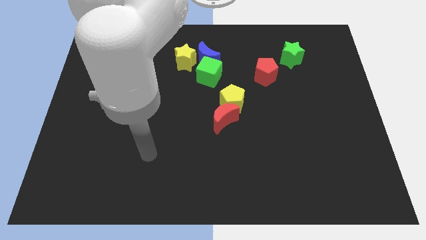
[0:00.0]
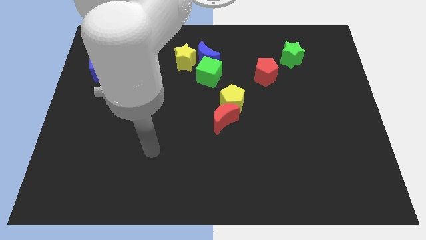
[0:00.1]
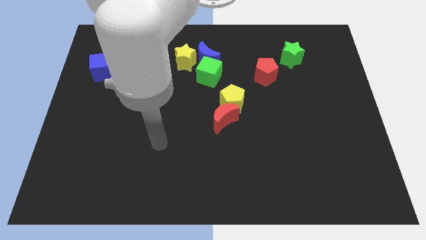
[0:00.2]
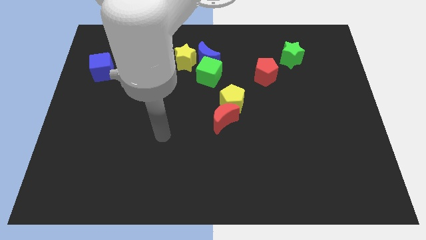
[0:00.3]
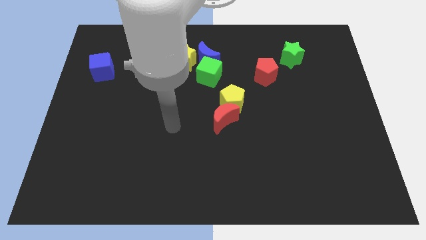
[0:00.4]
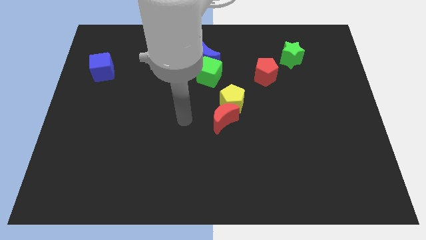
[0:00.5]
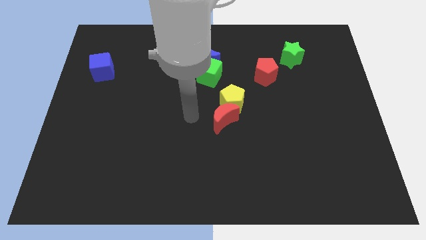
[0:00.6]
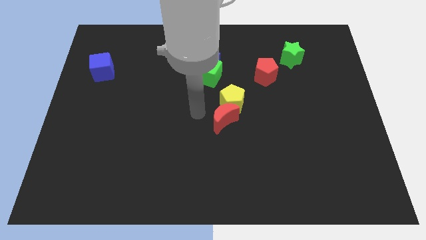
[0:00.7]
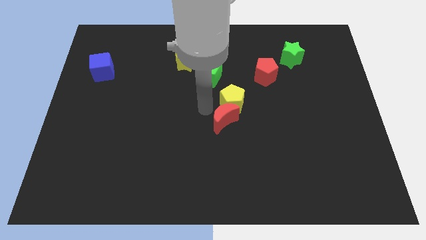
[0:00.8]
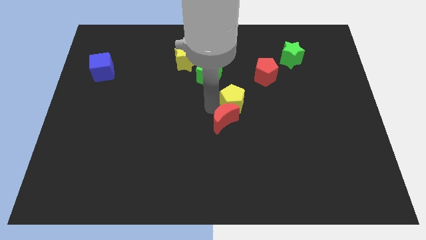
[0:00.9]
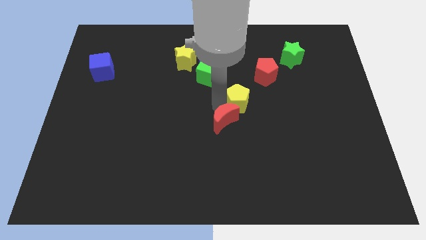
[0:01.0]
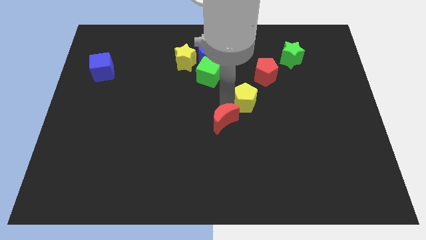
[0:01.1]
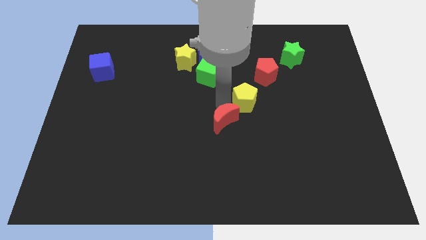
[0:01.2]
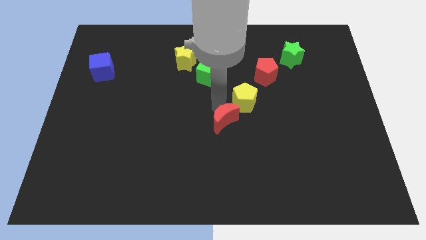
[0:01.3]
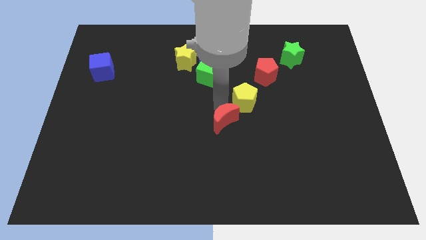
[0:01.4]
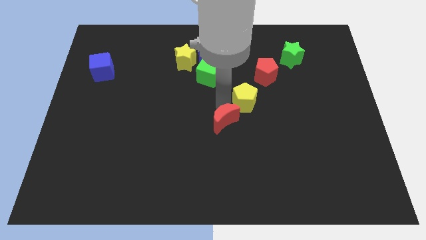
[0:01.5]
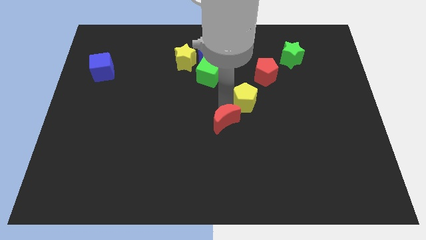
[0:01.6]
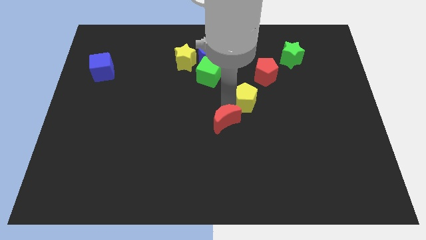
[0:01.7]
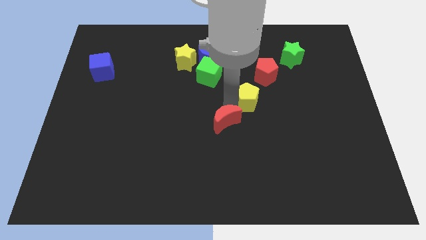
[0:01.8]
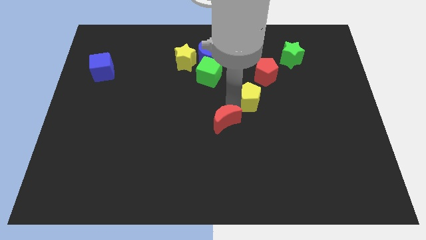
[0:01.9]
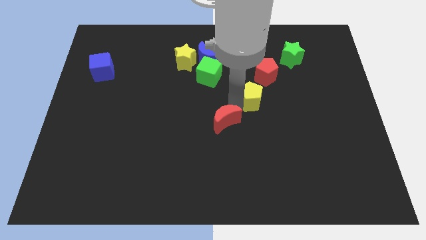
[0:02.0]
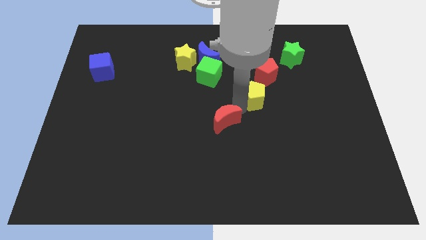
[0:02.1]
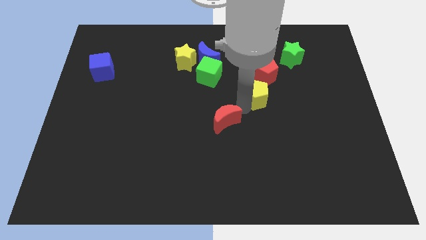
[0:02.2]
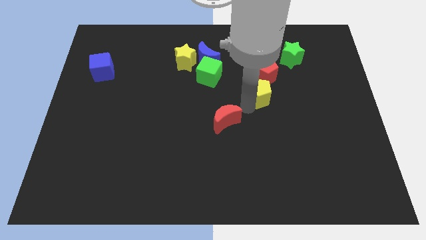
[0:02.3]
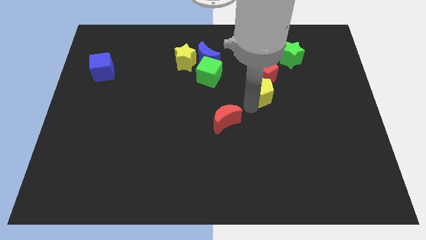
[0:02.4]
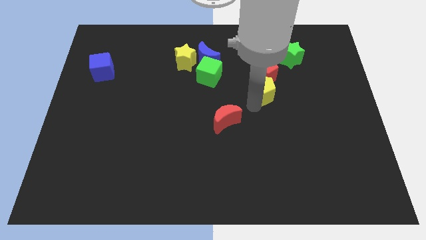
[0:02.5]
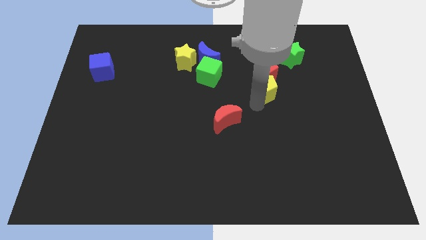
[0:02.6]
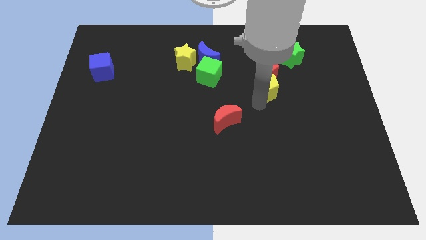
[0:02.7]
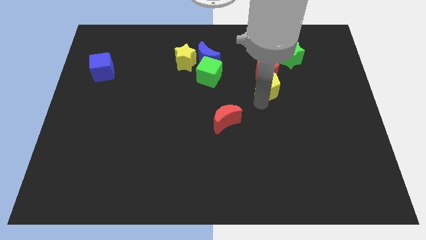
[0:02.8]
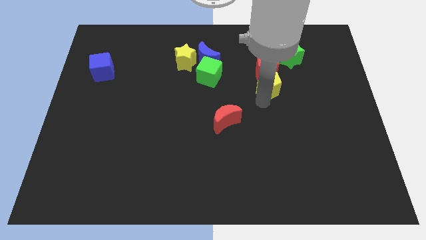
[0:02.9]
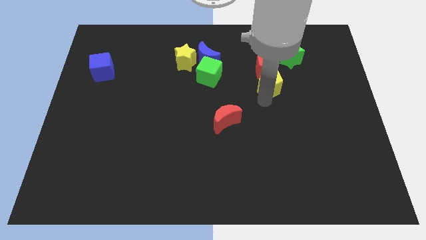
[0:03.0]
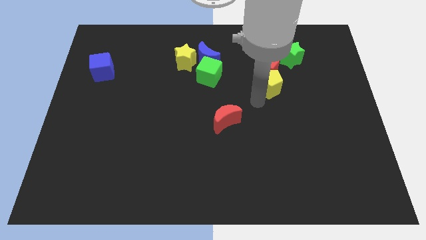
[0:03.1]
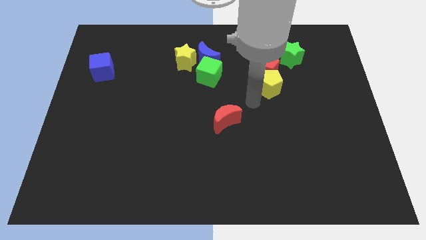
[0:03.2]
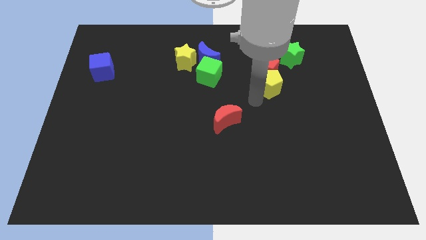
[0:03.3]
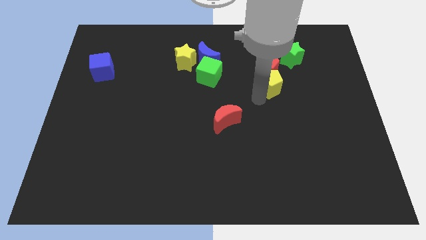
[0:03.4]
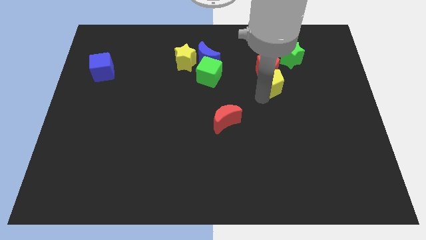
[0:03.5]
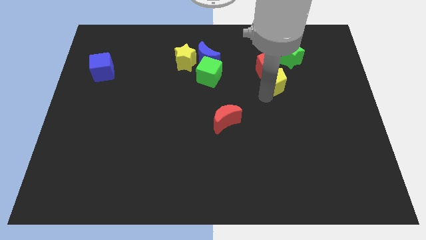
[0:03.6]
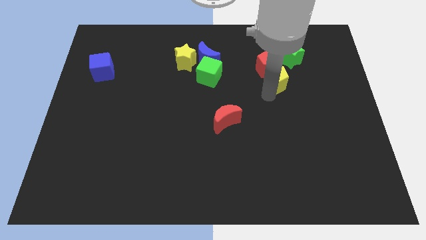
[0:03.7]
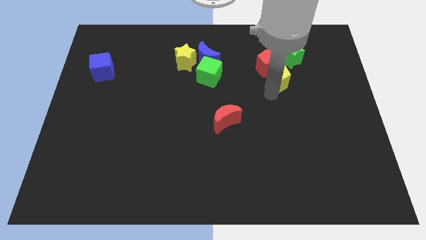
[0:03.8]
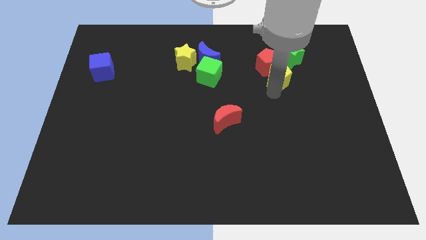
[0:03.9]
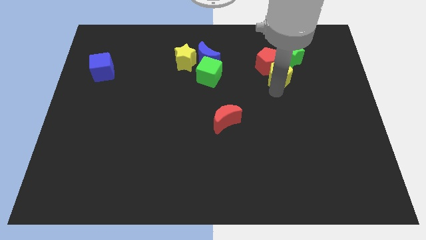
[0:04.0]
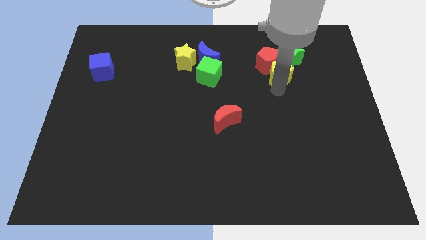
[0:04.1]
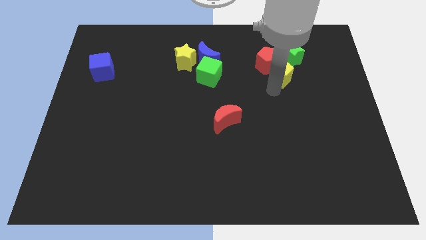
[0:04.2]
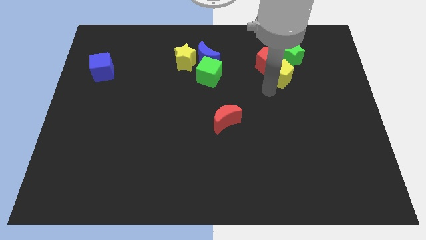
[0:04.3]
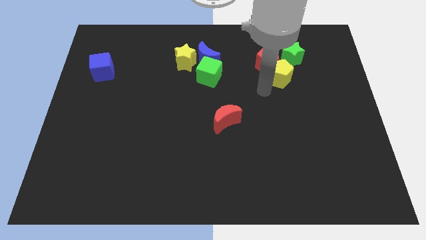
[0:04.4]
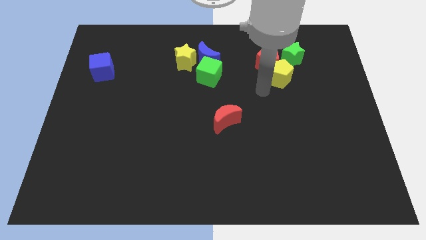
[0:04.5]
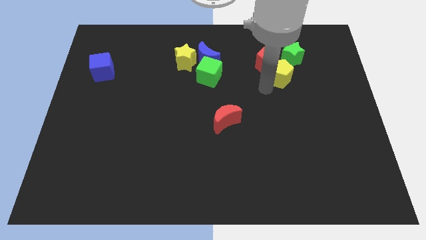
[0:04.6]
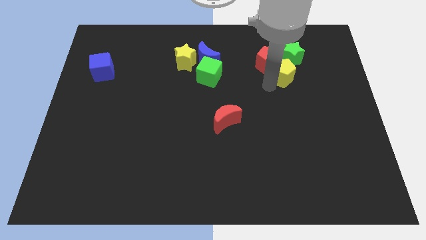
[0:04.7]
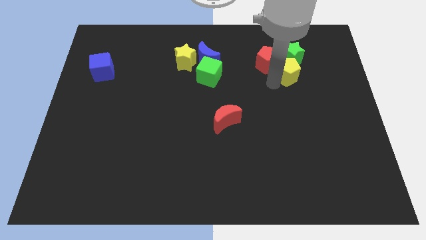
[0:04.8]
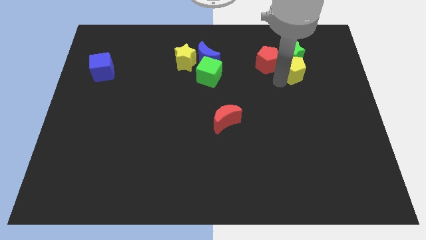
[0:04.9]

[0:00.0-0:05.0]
slide the yellow pentagon close to the green star

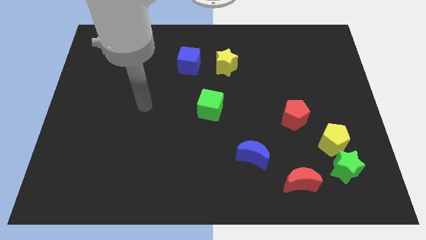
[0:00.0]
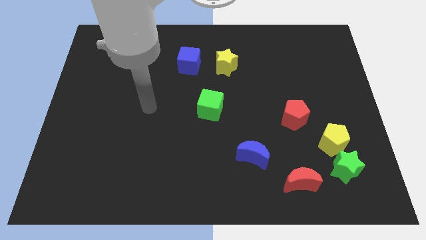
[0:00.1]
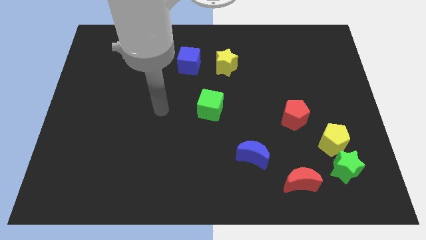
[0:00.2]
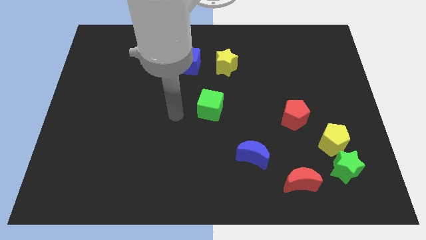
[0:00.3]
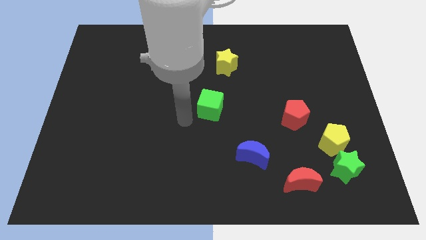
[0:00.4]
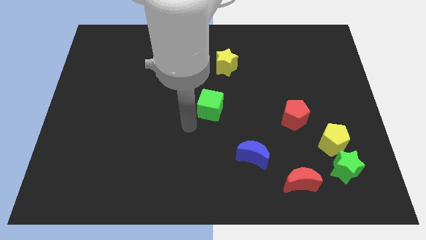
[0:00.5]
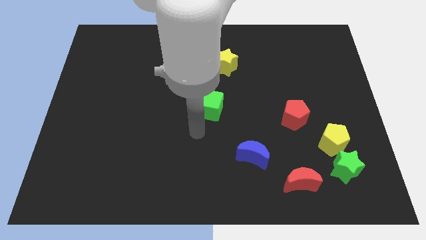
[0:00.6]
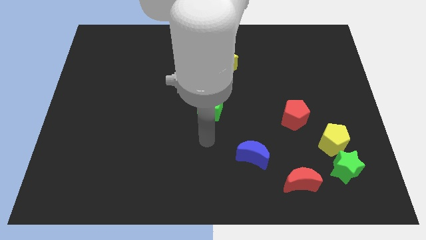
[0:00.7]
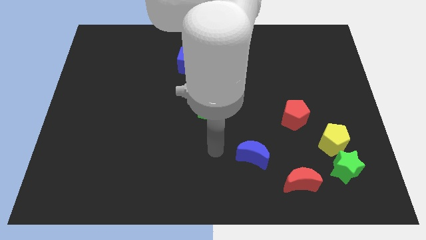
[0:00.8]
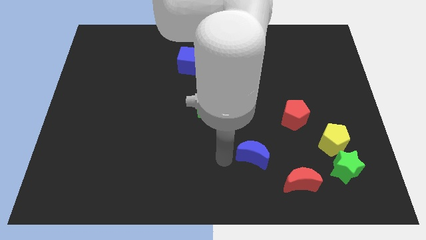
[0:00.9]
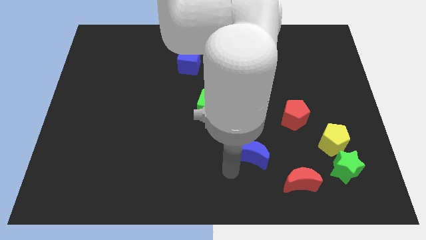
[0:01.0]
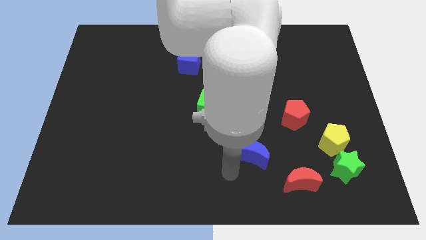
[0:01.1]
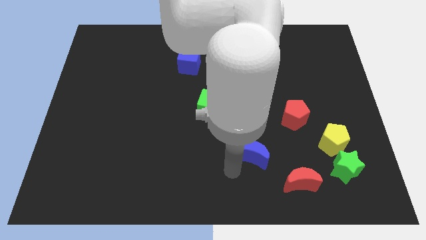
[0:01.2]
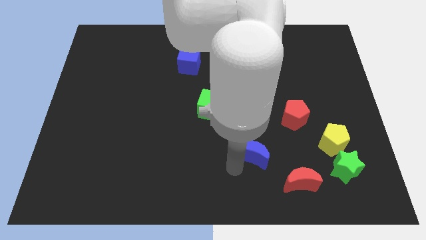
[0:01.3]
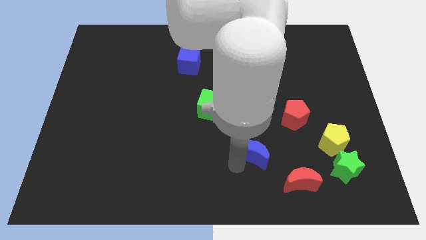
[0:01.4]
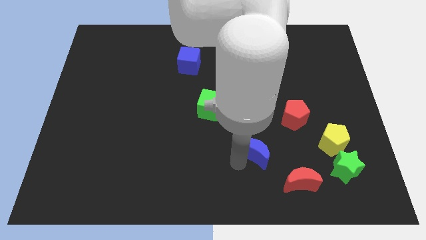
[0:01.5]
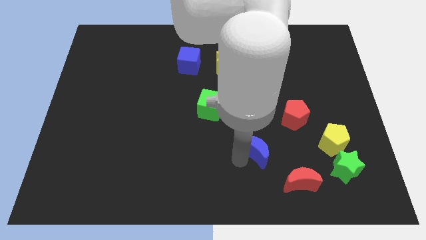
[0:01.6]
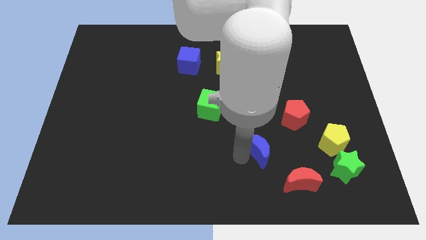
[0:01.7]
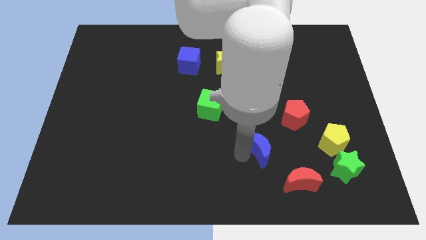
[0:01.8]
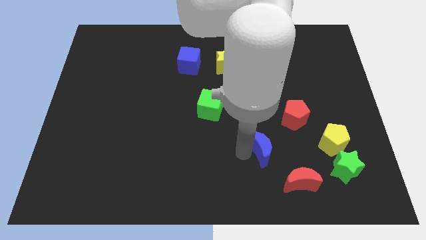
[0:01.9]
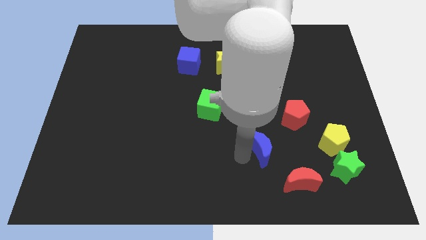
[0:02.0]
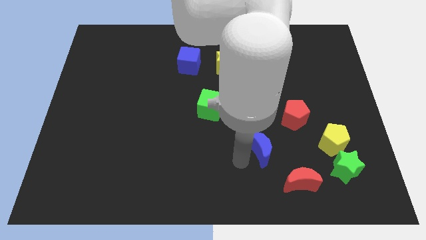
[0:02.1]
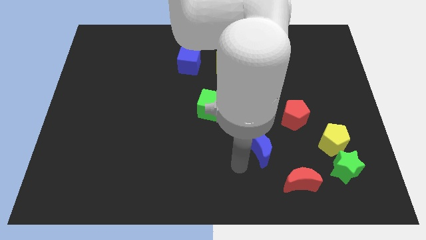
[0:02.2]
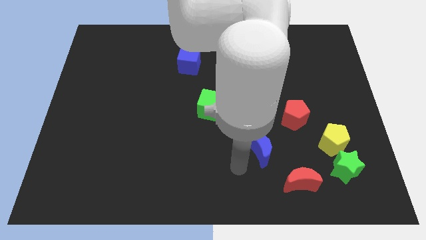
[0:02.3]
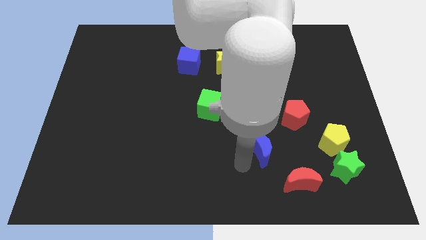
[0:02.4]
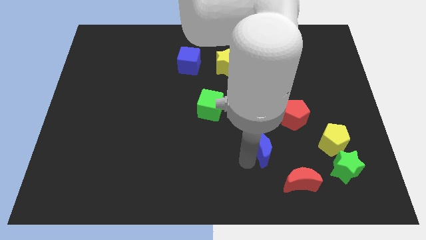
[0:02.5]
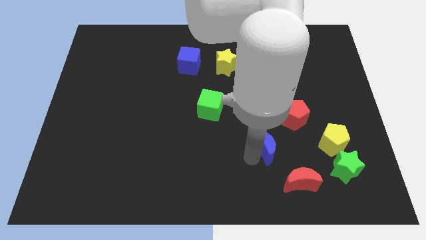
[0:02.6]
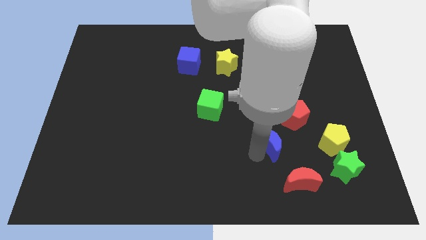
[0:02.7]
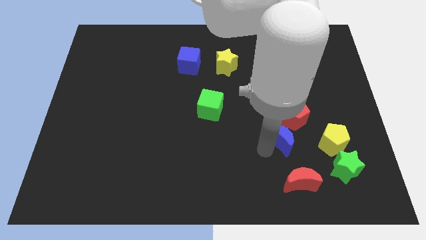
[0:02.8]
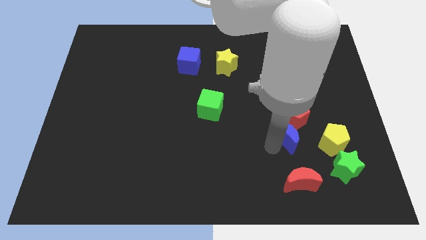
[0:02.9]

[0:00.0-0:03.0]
put the blue moon to the red pentagon

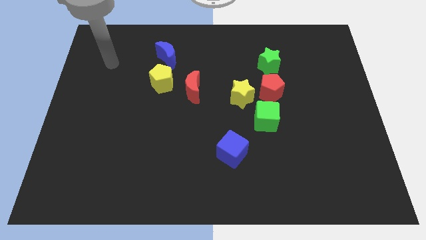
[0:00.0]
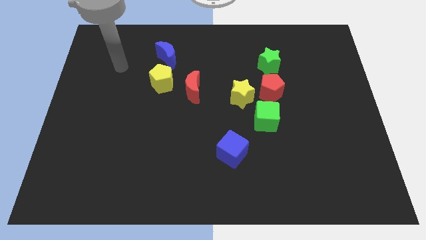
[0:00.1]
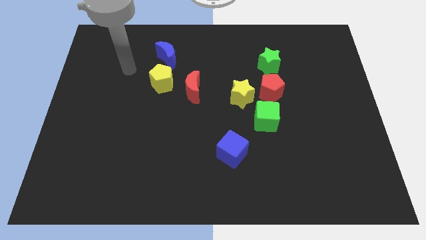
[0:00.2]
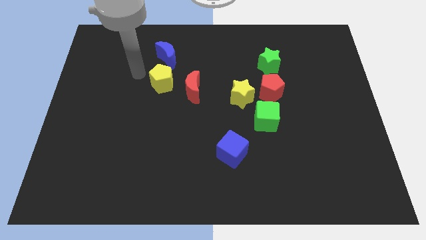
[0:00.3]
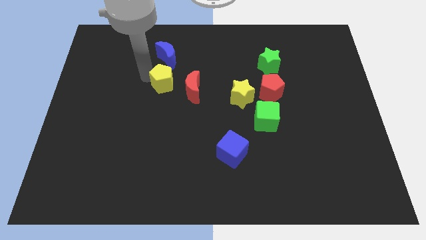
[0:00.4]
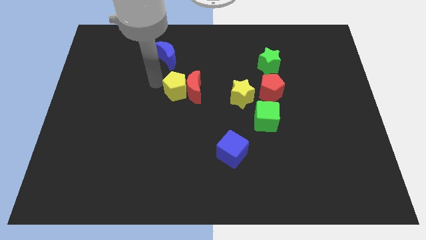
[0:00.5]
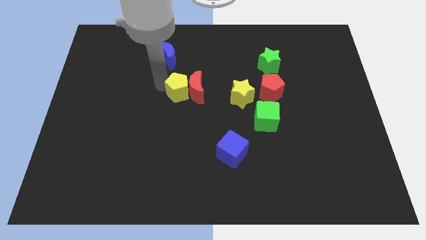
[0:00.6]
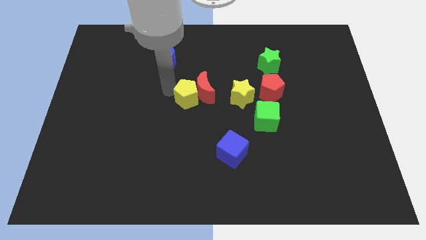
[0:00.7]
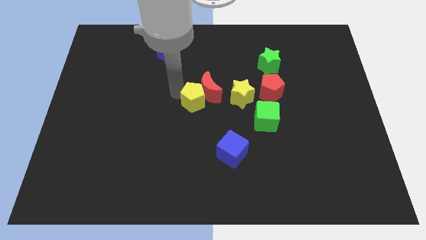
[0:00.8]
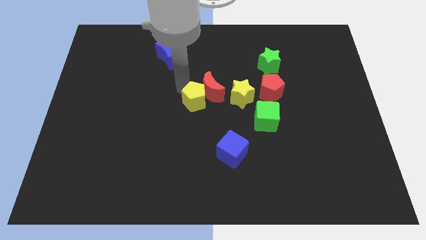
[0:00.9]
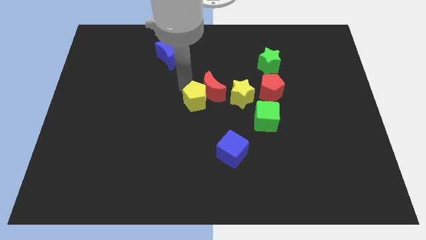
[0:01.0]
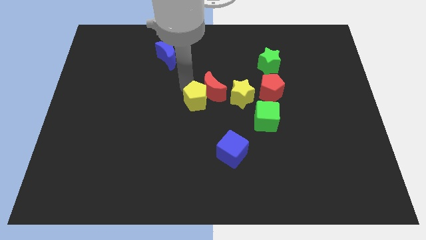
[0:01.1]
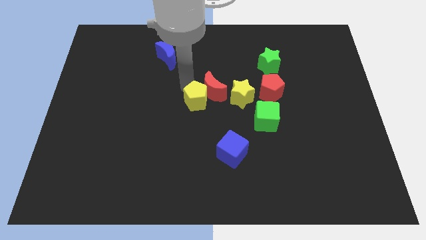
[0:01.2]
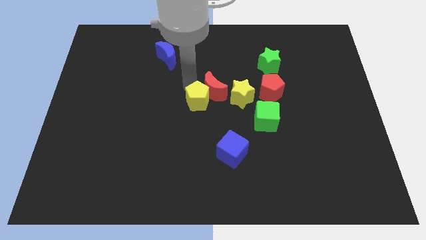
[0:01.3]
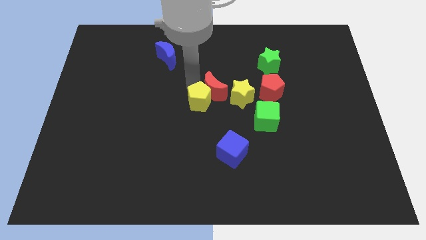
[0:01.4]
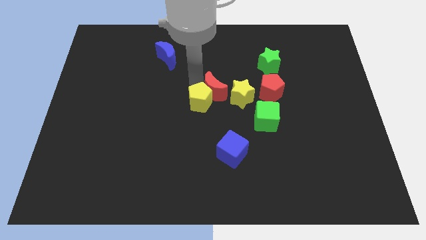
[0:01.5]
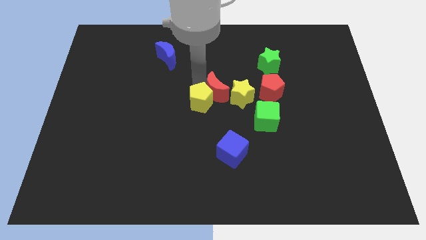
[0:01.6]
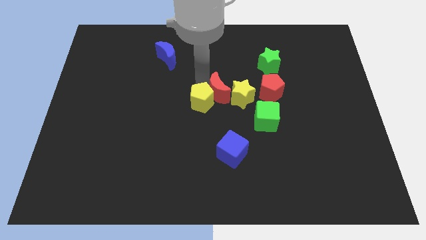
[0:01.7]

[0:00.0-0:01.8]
slide the red moon close to the yellow star
